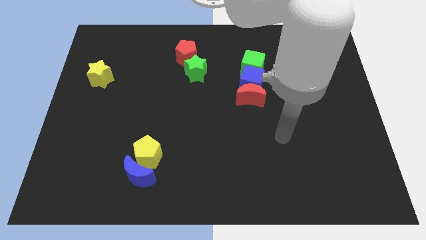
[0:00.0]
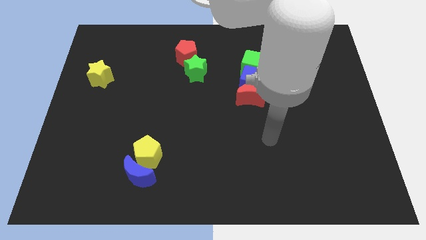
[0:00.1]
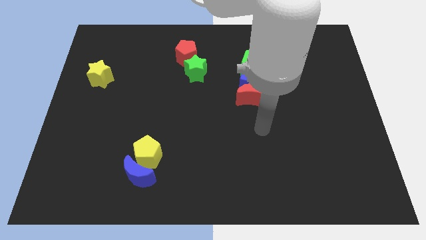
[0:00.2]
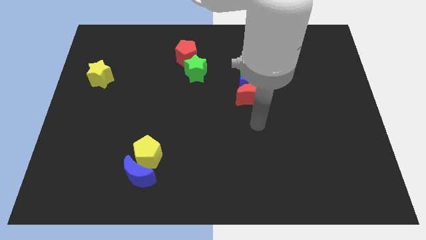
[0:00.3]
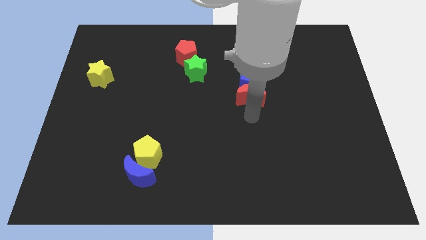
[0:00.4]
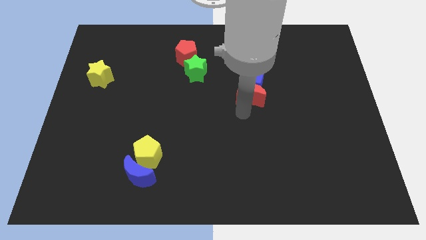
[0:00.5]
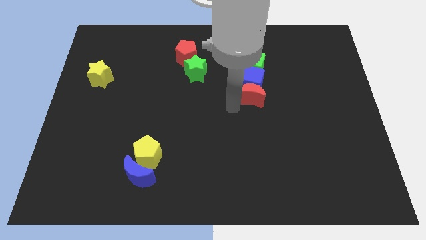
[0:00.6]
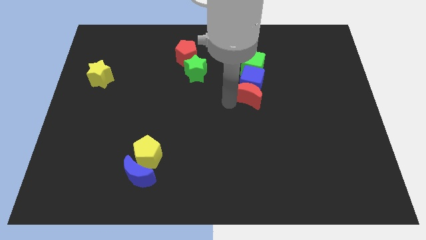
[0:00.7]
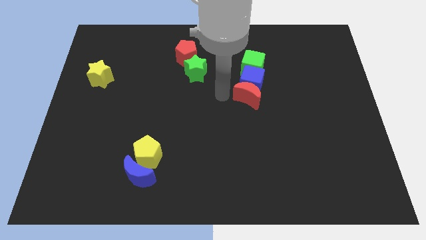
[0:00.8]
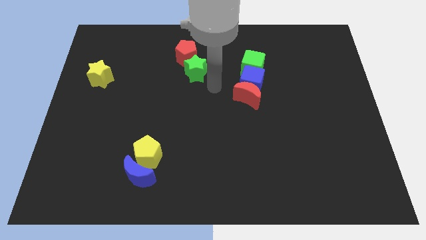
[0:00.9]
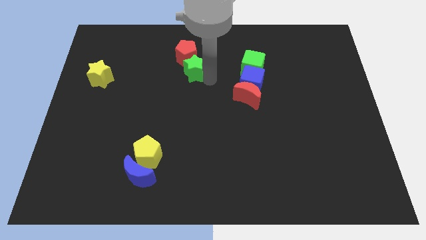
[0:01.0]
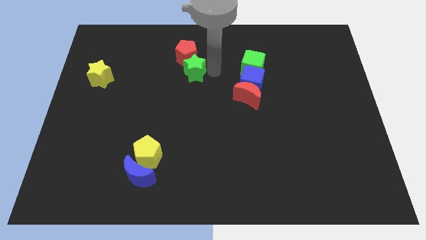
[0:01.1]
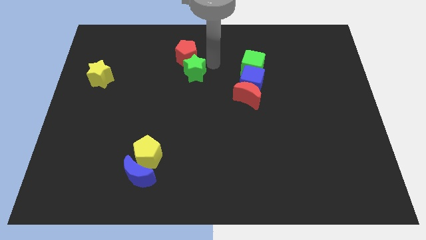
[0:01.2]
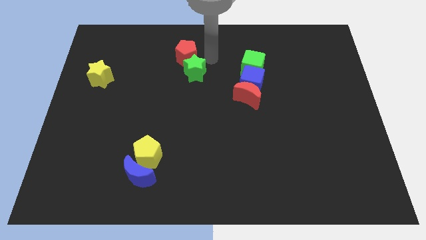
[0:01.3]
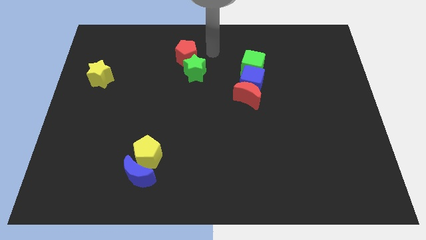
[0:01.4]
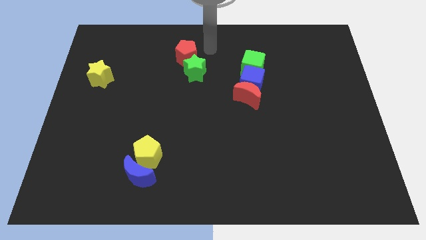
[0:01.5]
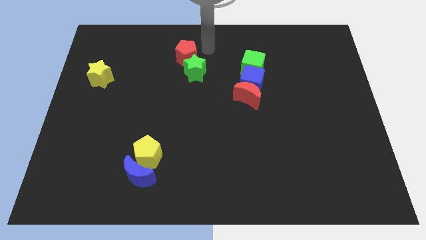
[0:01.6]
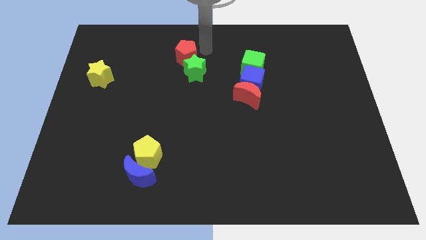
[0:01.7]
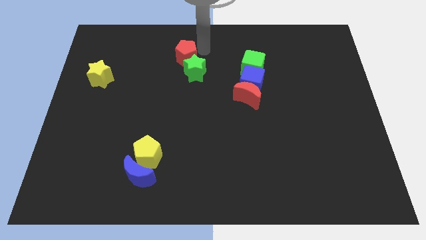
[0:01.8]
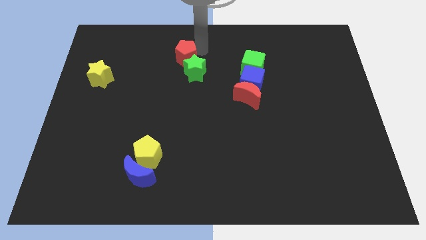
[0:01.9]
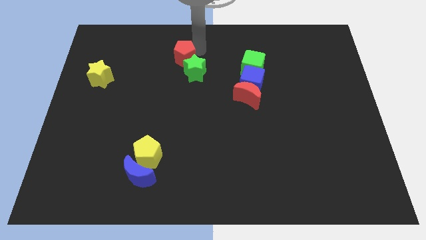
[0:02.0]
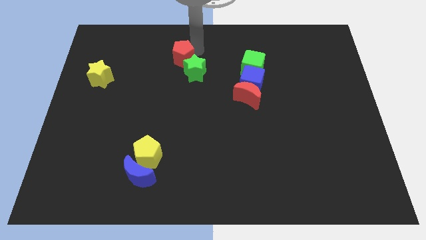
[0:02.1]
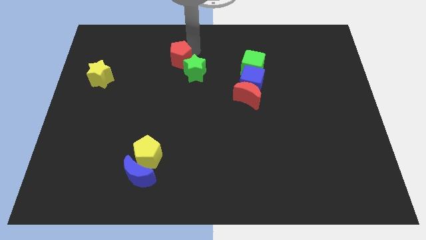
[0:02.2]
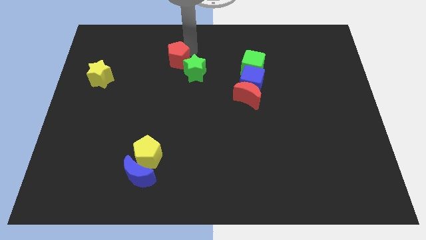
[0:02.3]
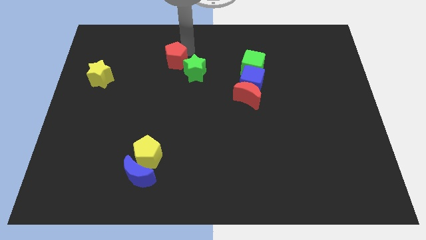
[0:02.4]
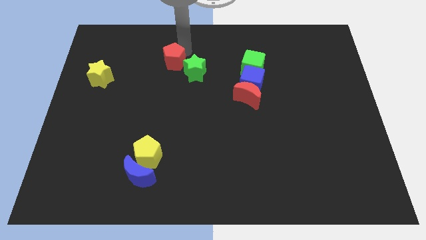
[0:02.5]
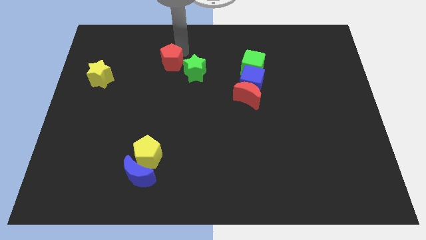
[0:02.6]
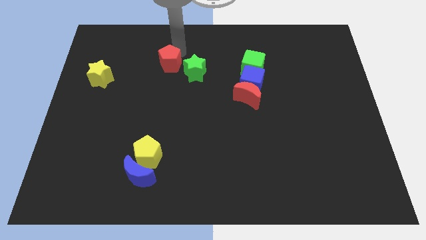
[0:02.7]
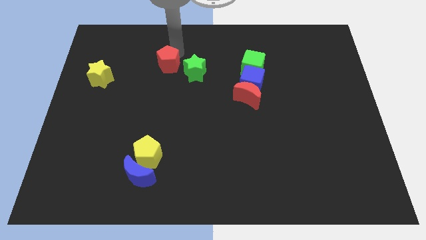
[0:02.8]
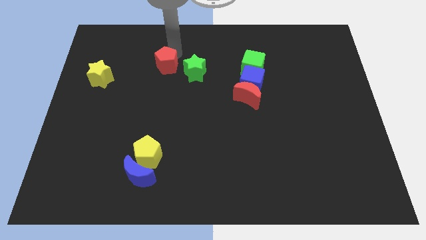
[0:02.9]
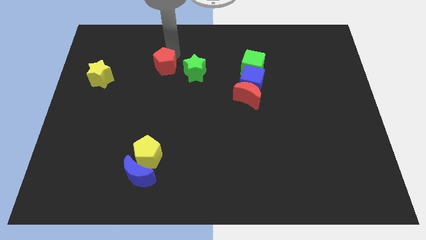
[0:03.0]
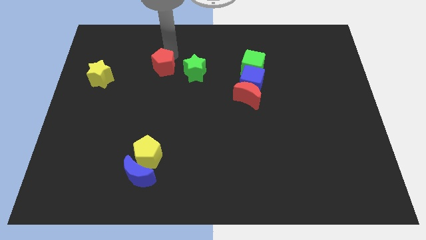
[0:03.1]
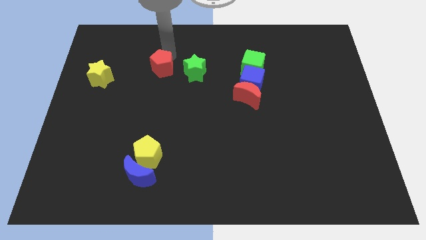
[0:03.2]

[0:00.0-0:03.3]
push the red pentagon a bit downwards and left diagonally

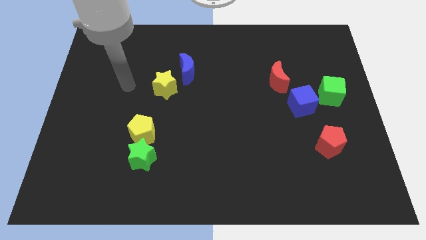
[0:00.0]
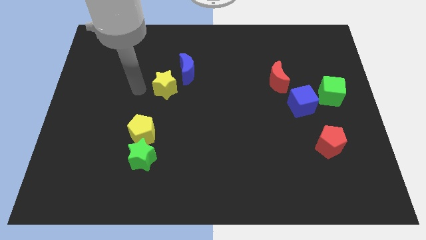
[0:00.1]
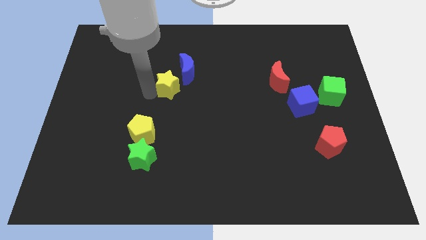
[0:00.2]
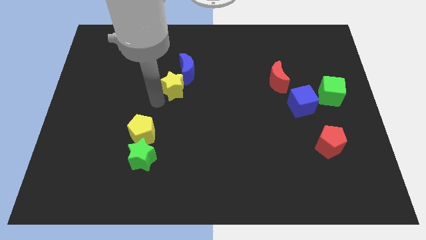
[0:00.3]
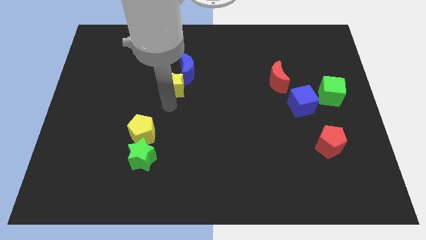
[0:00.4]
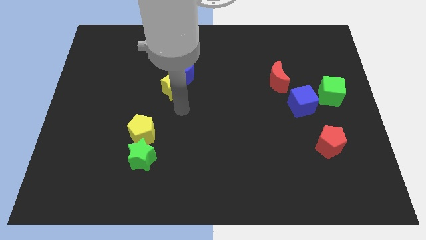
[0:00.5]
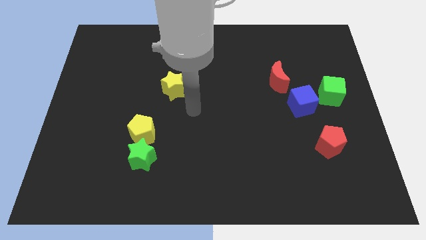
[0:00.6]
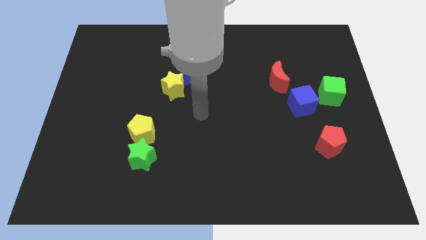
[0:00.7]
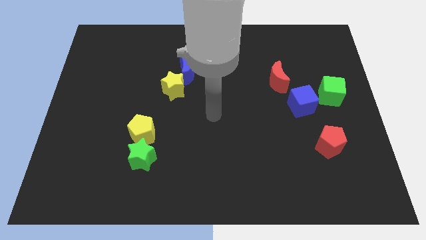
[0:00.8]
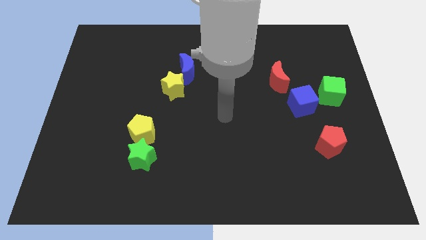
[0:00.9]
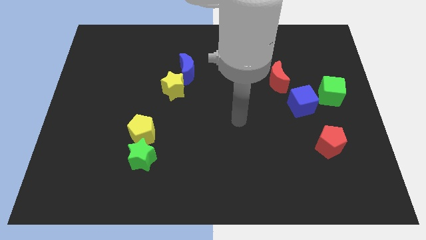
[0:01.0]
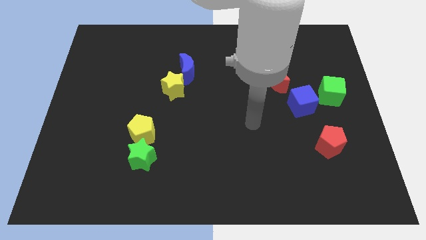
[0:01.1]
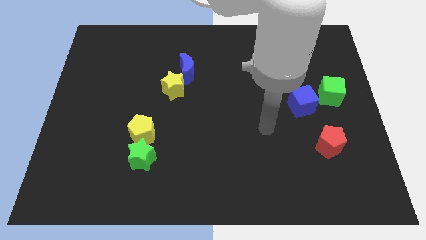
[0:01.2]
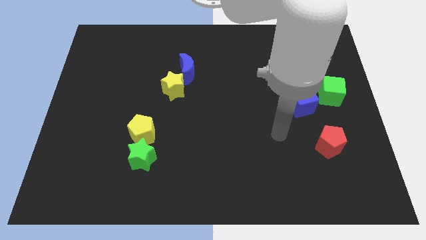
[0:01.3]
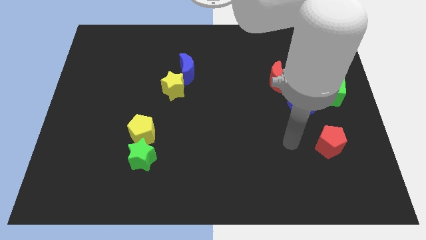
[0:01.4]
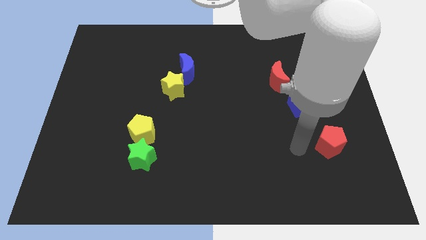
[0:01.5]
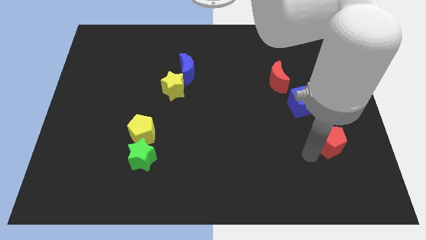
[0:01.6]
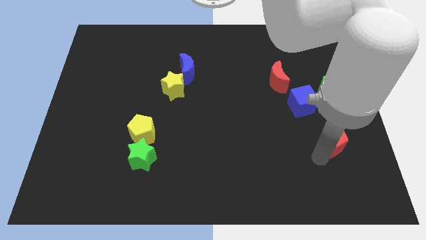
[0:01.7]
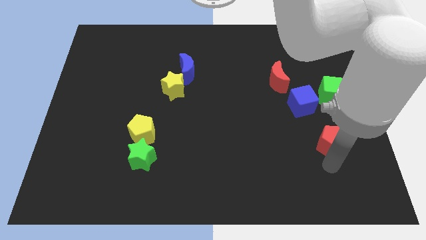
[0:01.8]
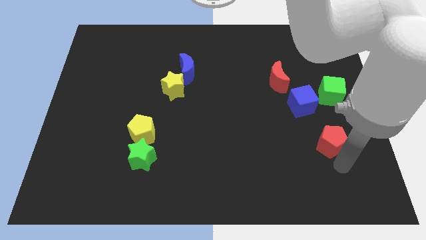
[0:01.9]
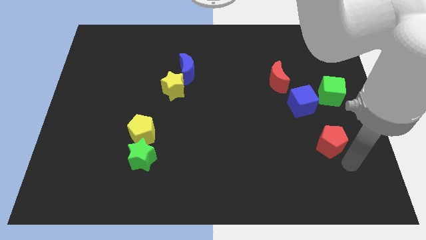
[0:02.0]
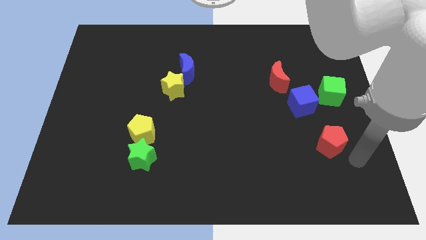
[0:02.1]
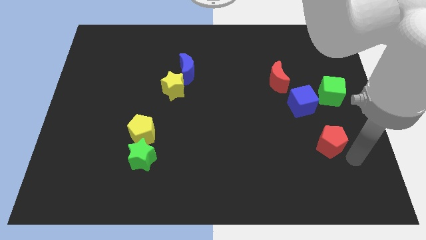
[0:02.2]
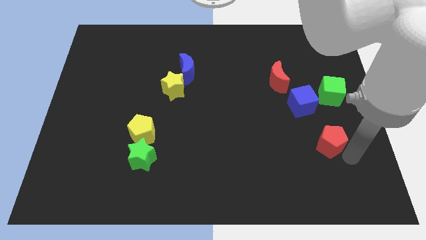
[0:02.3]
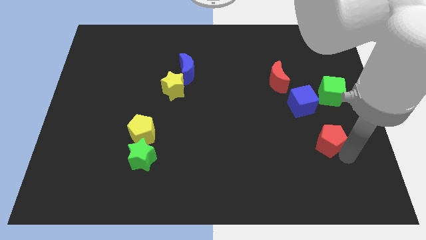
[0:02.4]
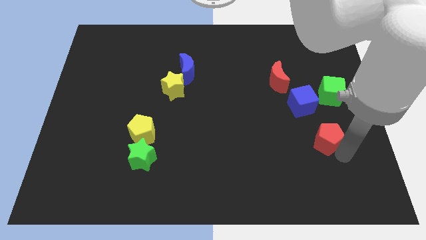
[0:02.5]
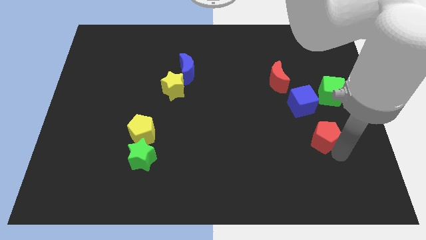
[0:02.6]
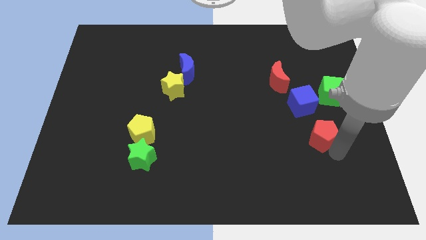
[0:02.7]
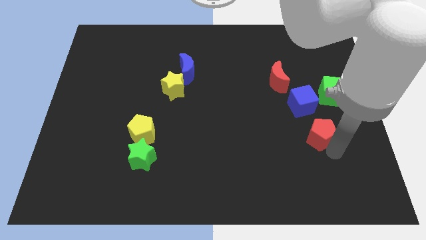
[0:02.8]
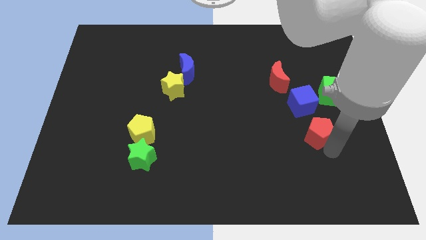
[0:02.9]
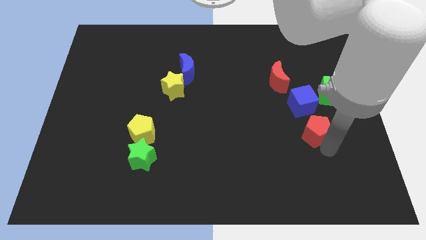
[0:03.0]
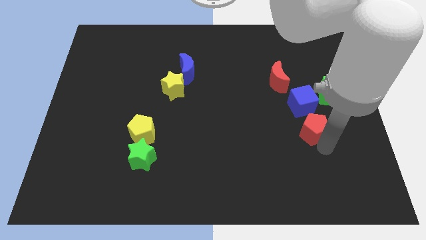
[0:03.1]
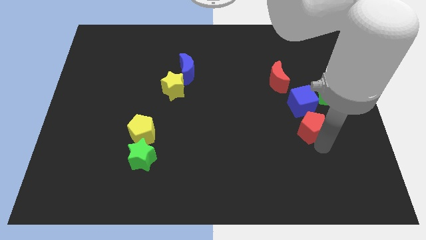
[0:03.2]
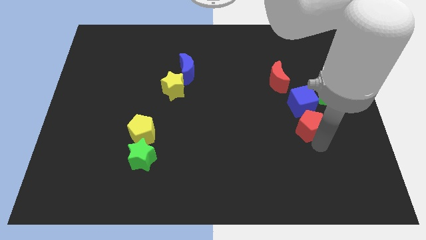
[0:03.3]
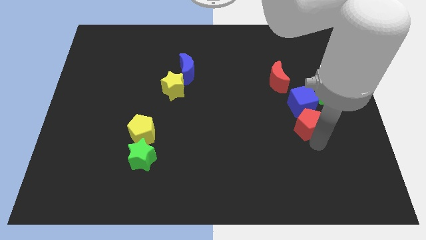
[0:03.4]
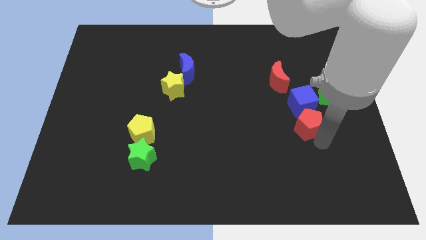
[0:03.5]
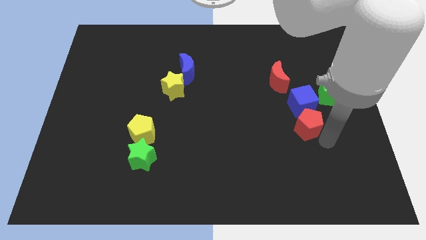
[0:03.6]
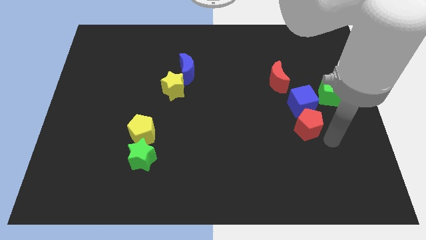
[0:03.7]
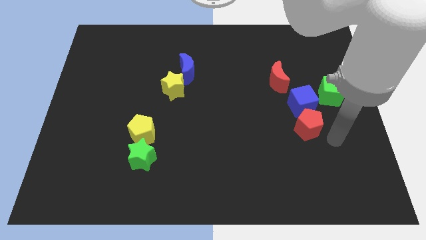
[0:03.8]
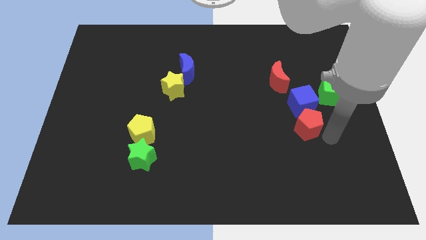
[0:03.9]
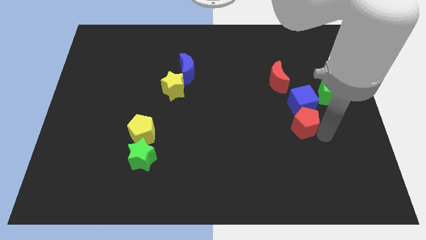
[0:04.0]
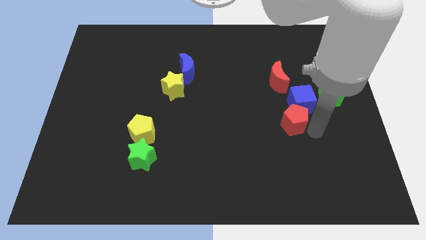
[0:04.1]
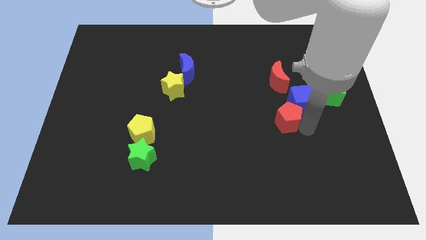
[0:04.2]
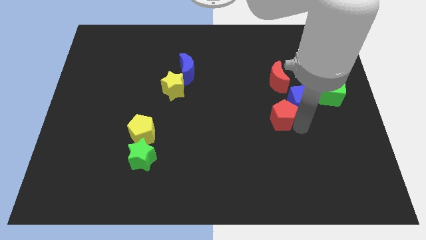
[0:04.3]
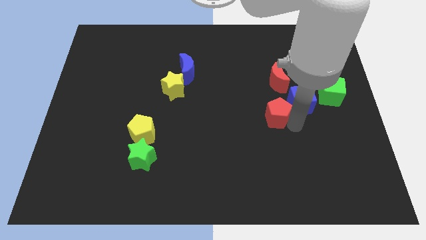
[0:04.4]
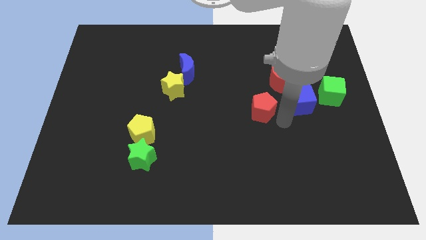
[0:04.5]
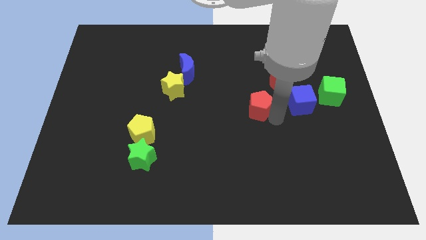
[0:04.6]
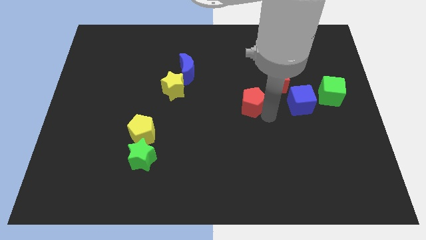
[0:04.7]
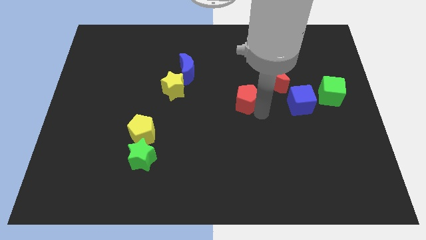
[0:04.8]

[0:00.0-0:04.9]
move the red pentagon upwards and then to the left
